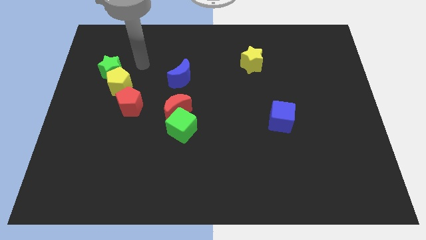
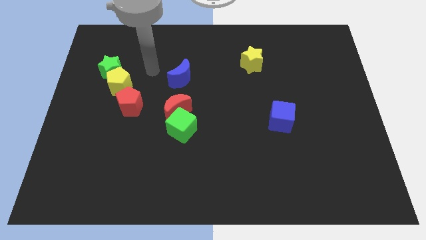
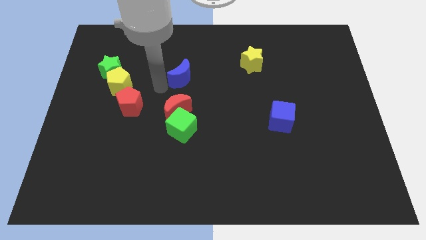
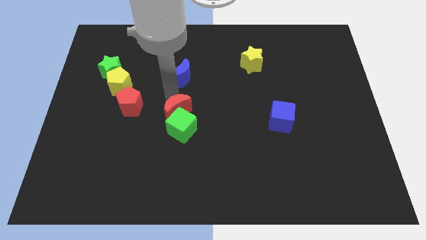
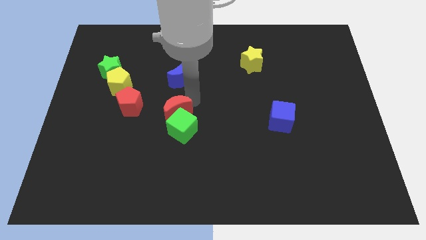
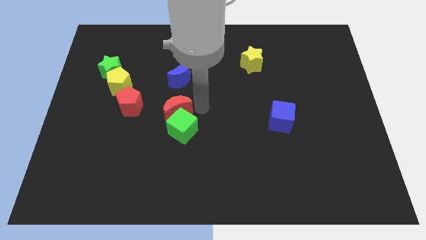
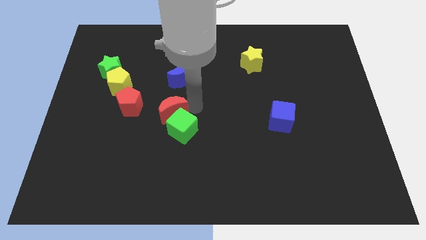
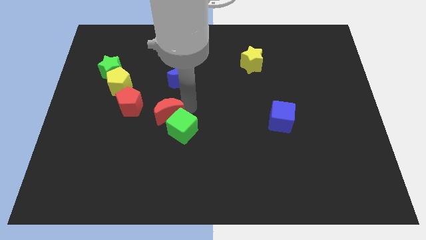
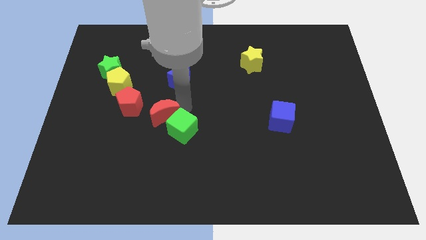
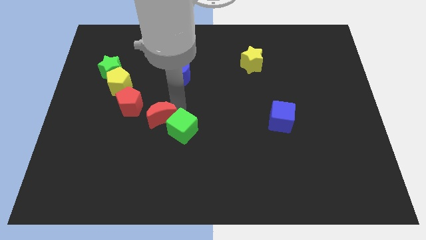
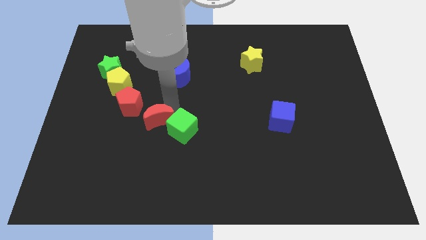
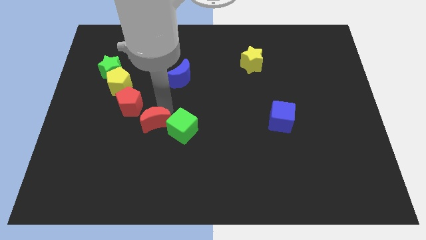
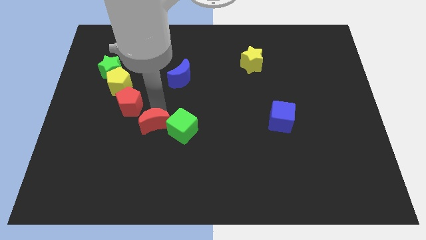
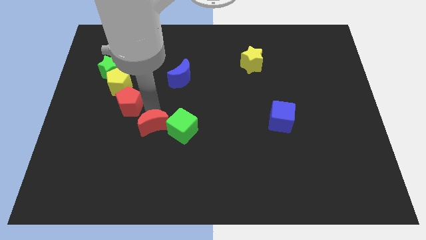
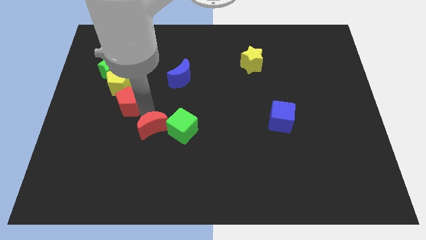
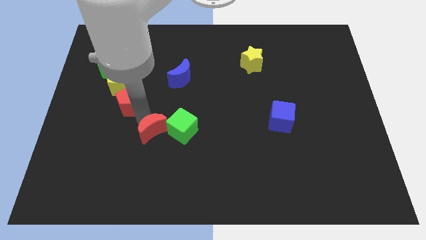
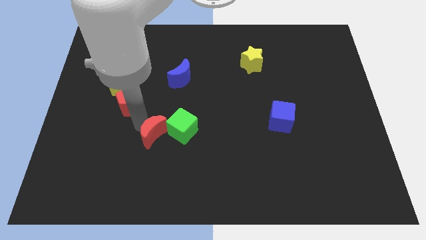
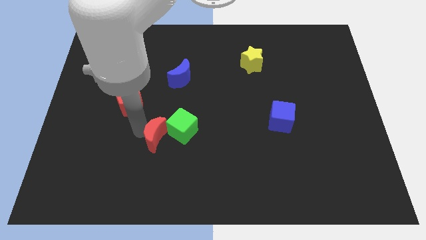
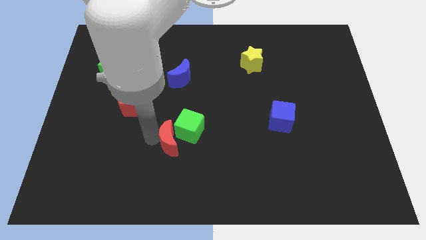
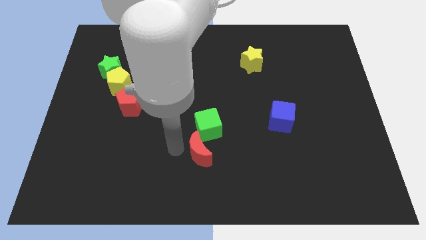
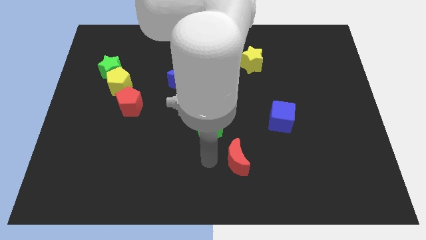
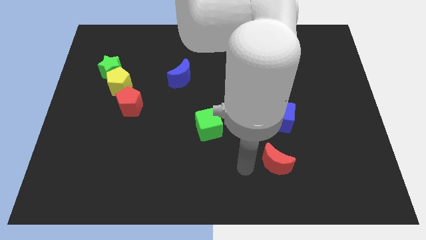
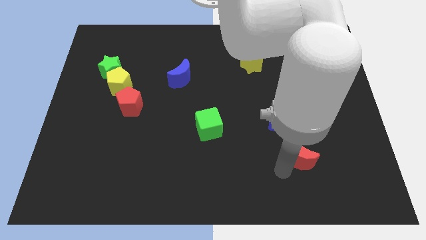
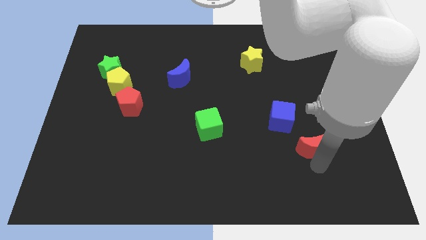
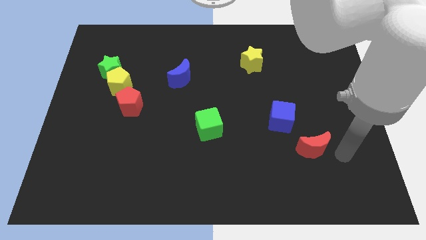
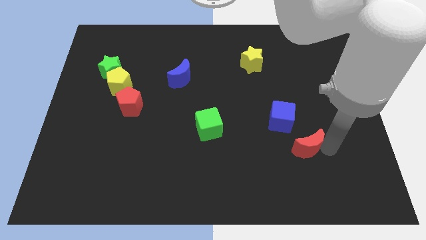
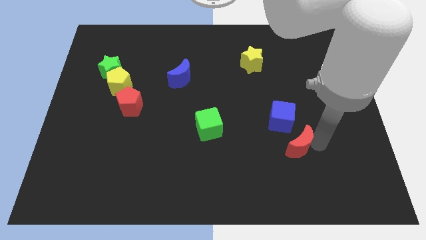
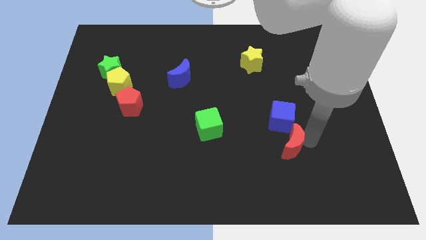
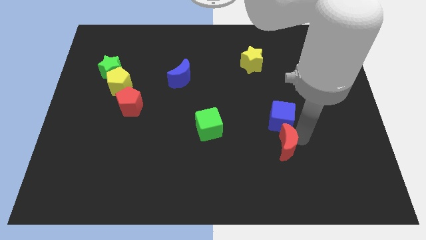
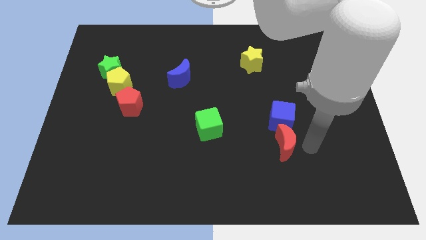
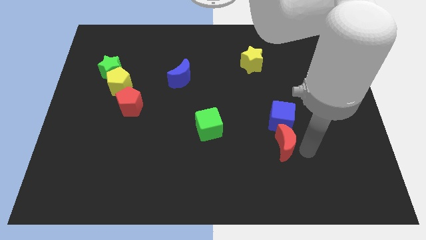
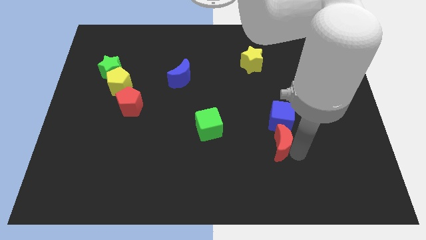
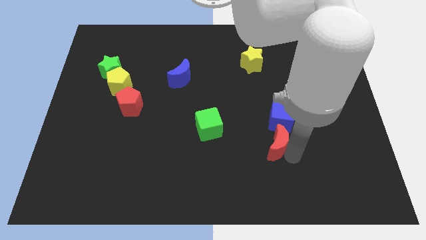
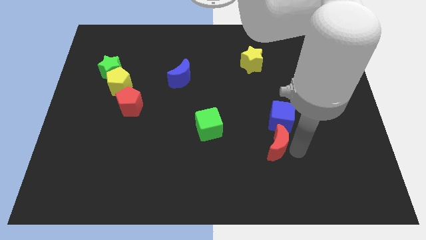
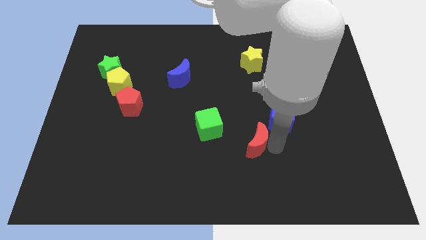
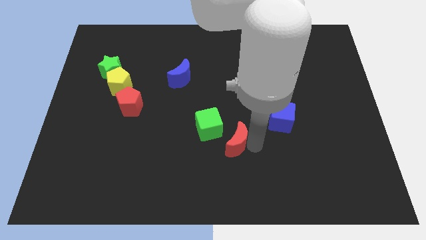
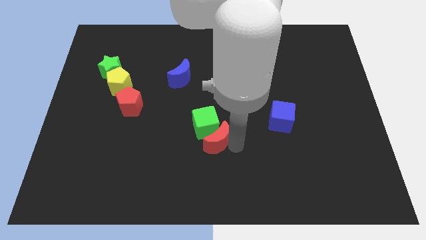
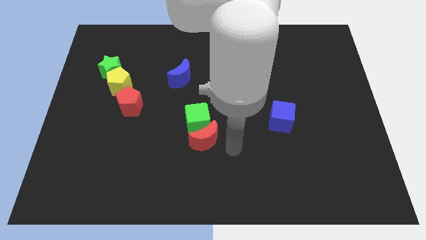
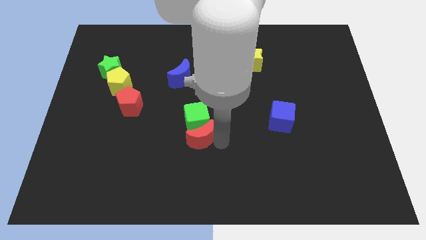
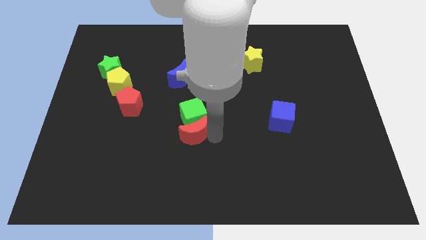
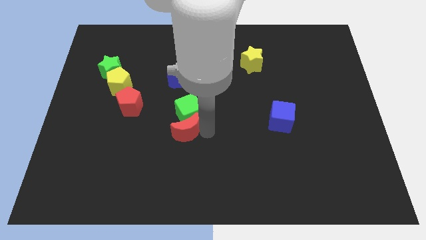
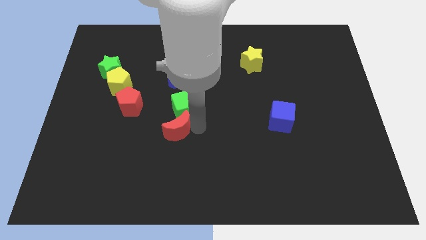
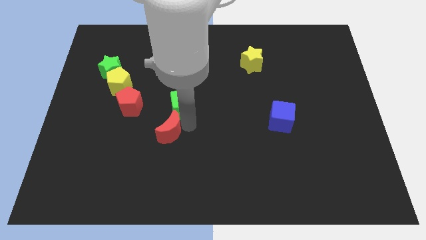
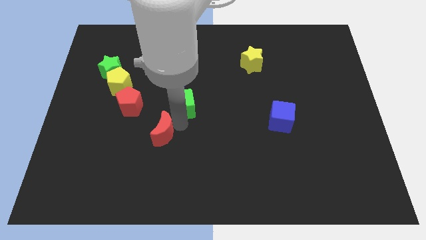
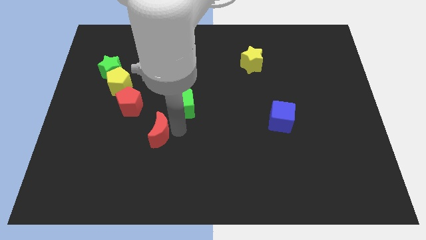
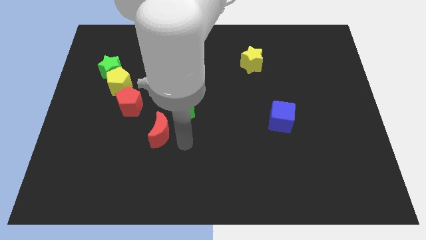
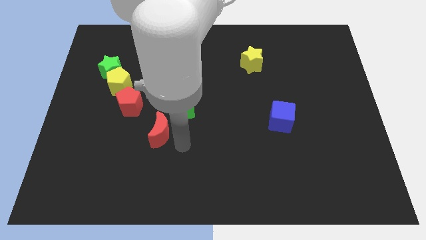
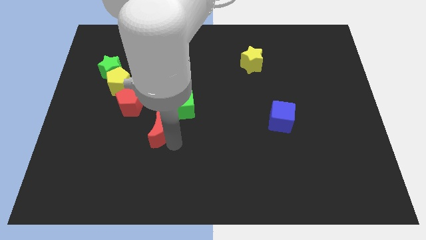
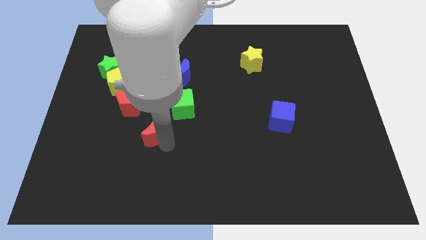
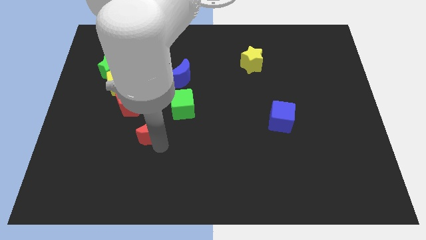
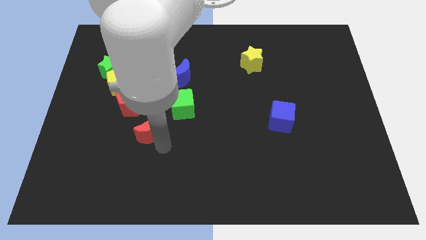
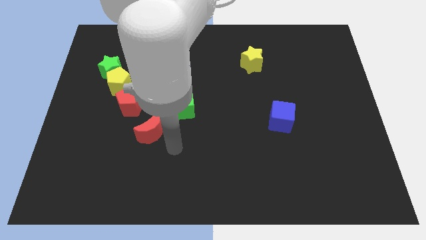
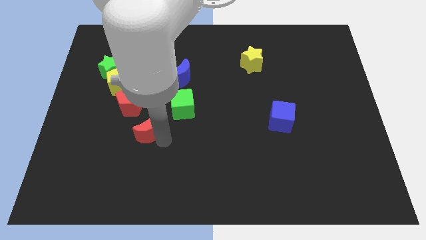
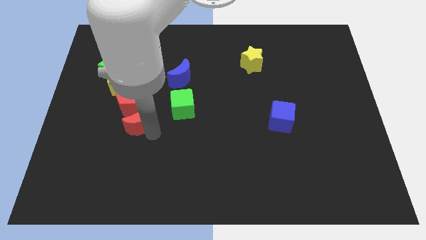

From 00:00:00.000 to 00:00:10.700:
slightly move the red moon left

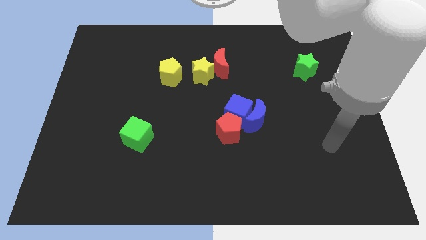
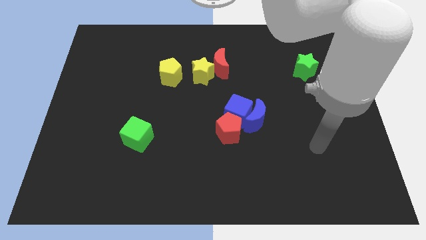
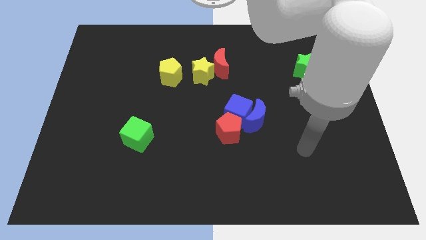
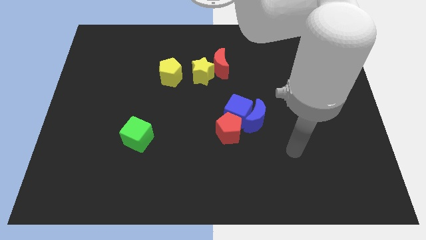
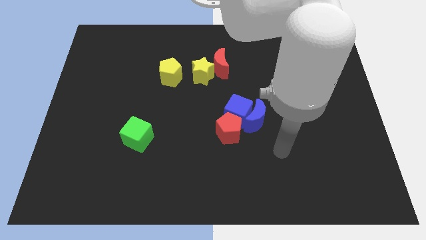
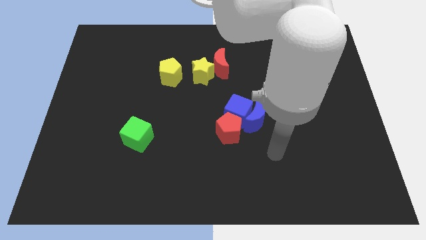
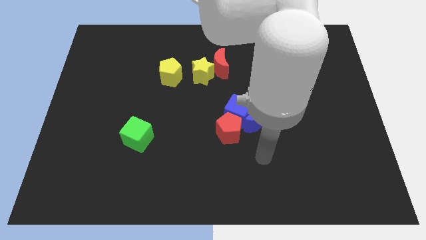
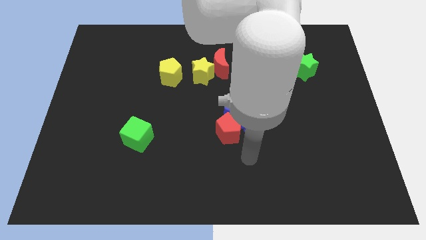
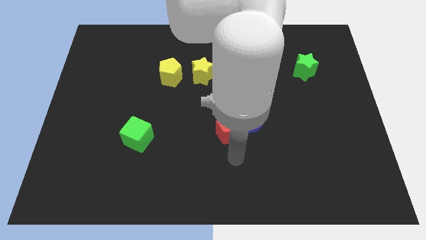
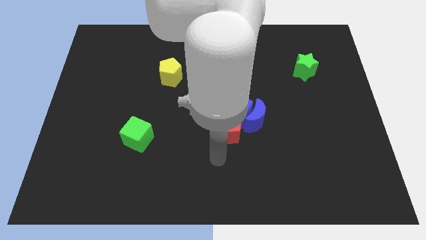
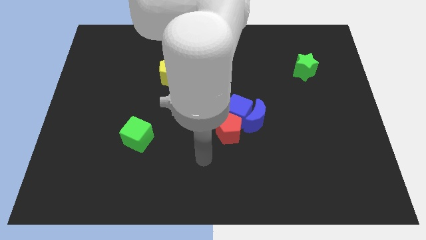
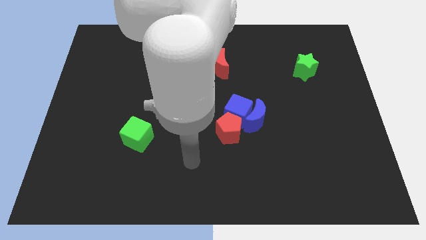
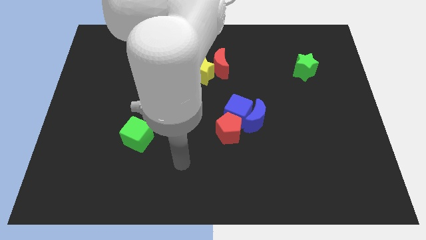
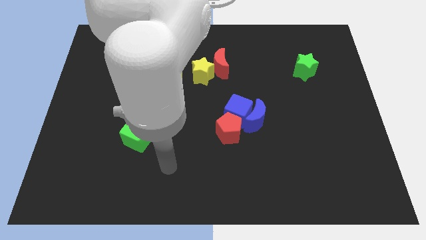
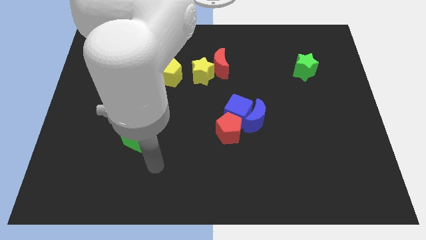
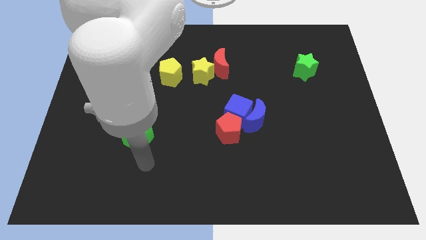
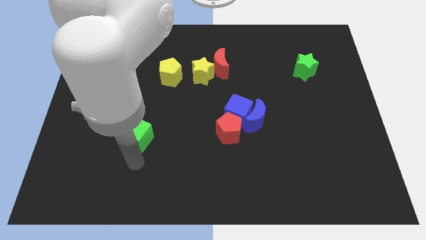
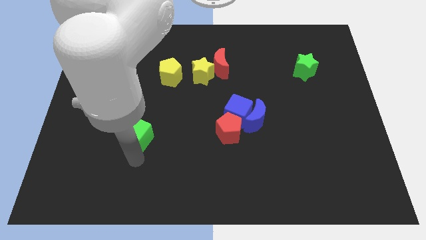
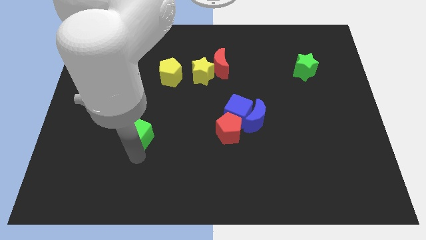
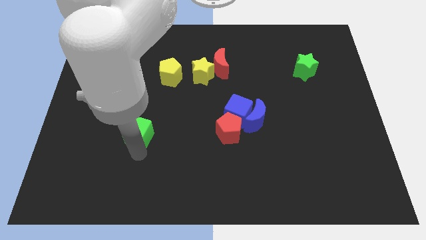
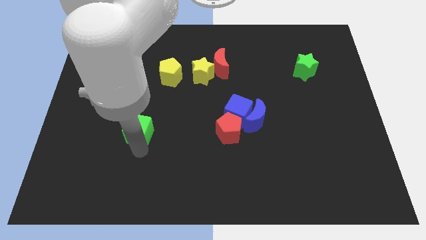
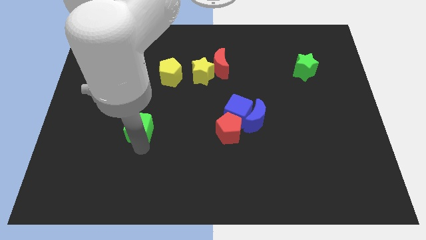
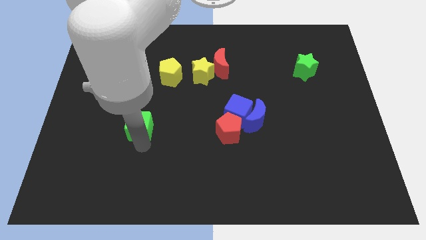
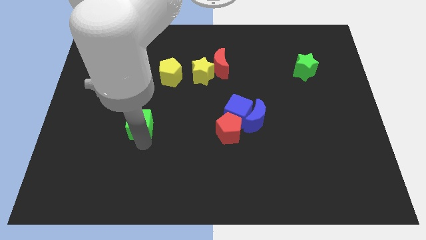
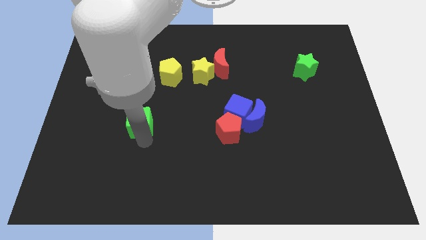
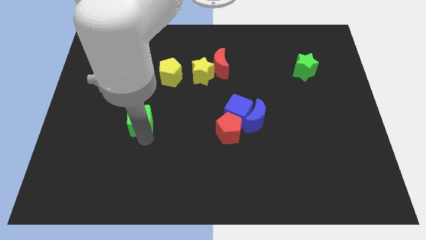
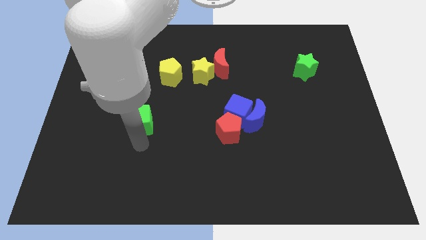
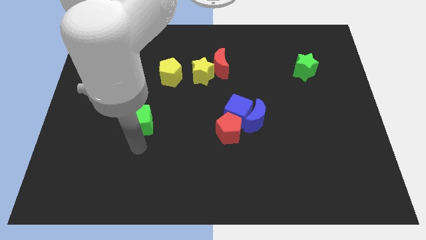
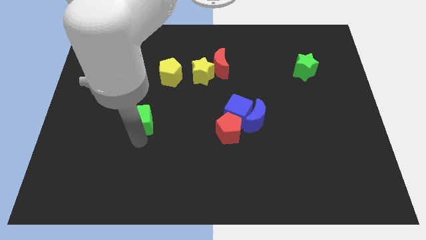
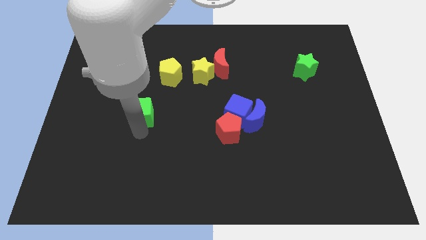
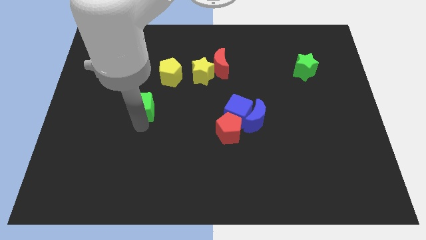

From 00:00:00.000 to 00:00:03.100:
slightly move the green cube upwards
